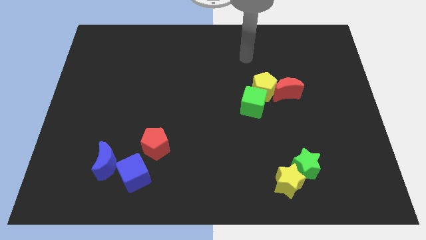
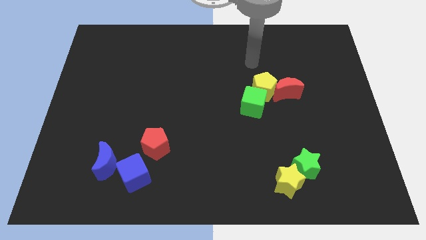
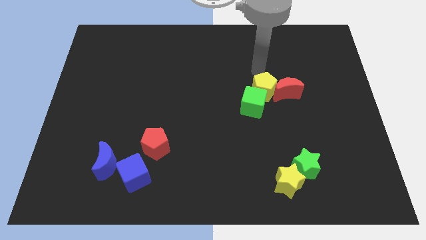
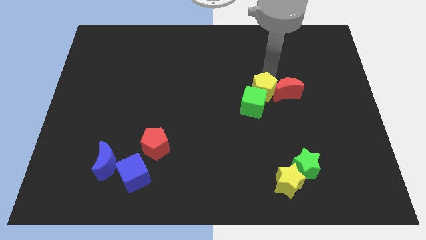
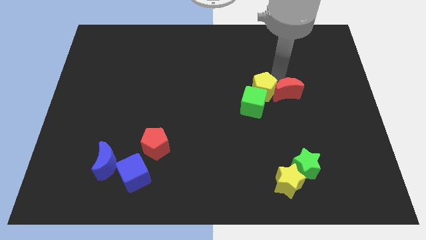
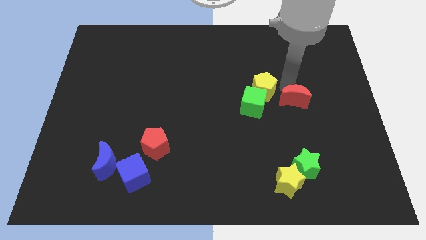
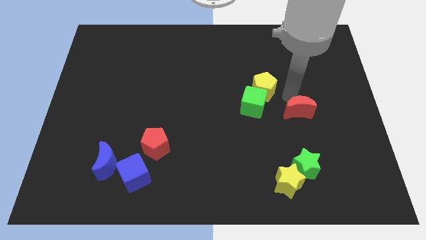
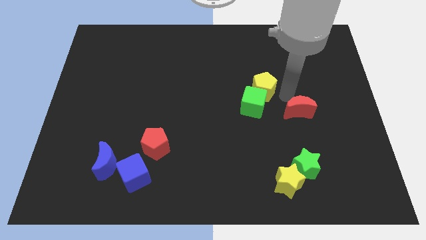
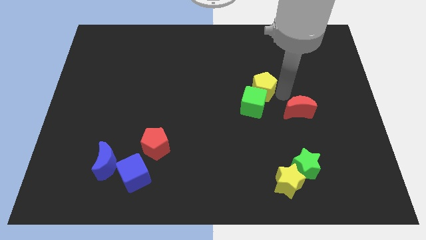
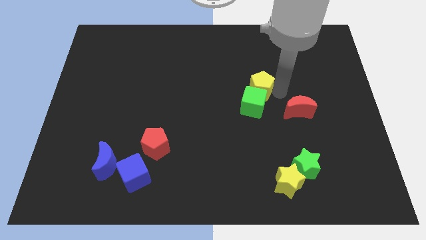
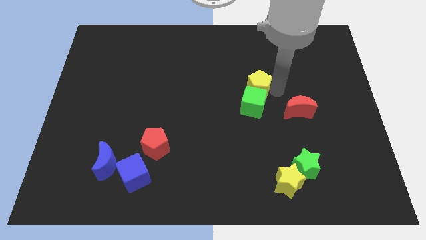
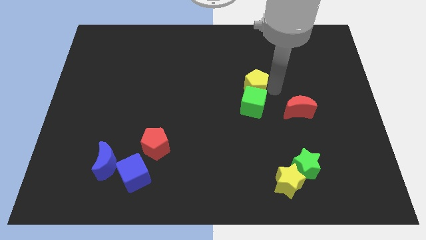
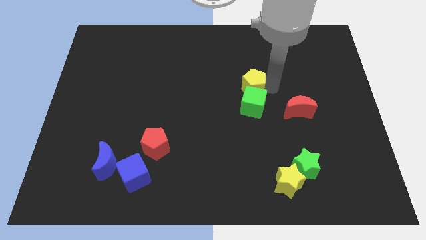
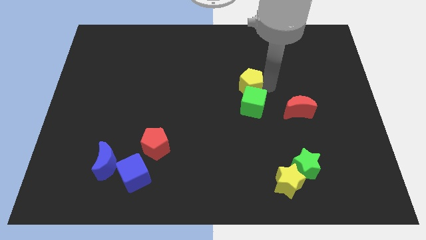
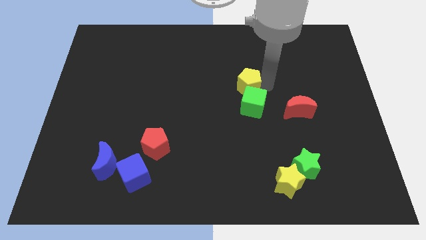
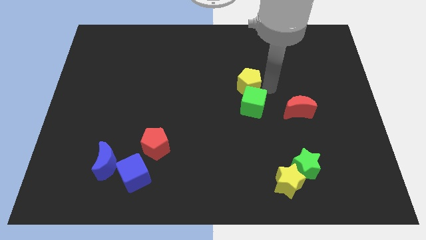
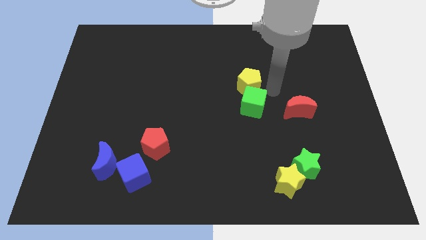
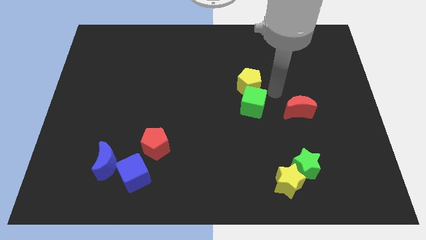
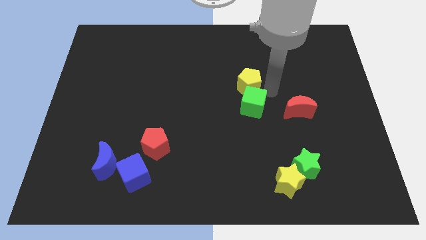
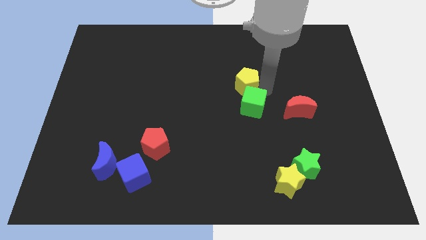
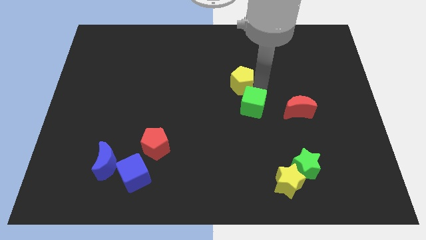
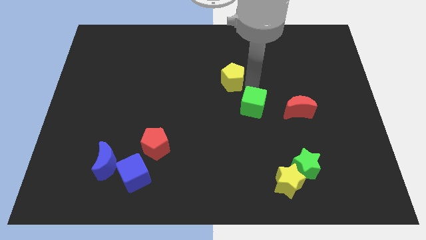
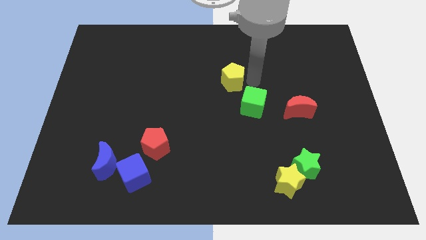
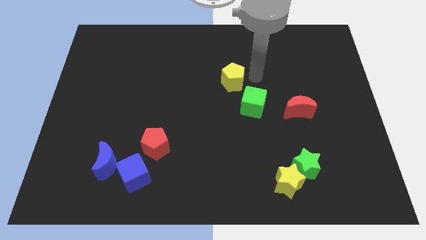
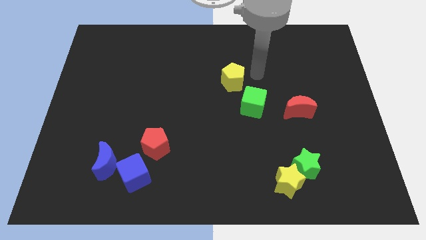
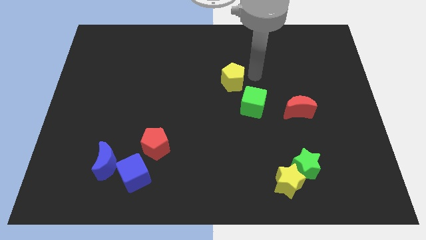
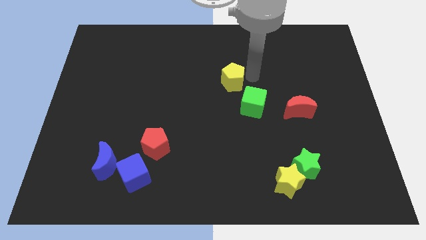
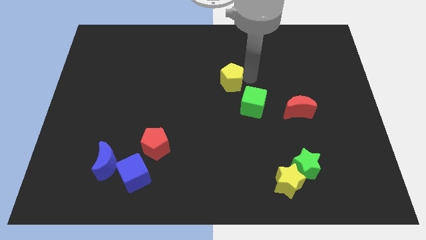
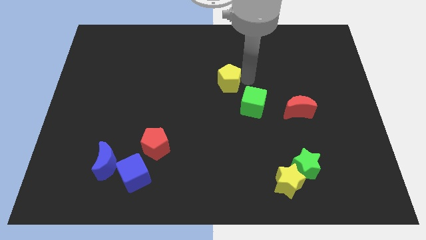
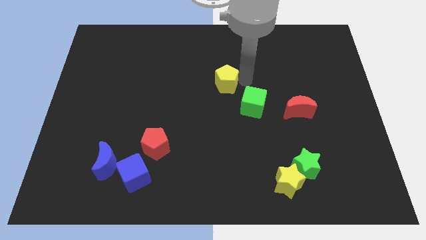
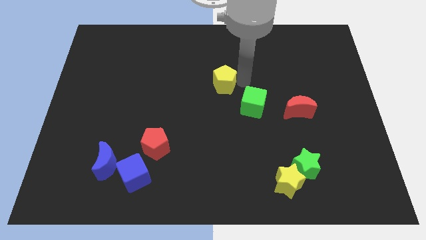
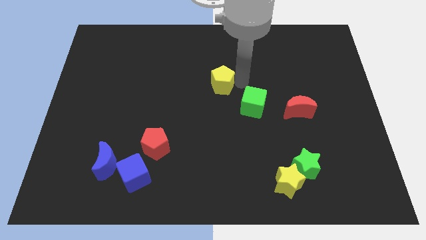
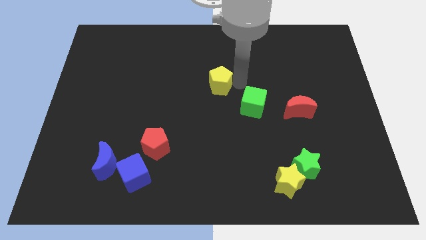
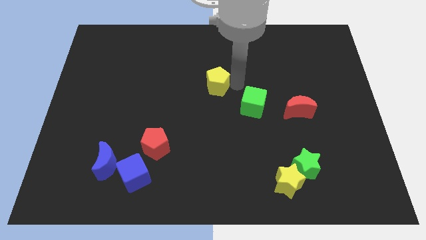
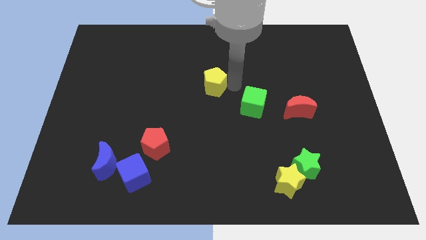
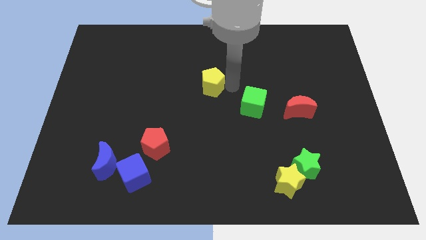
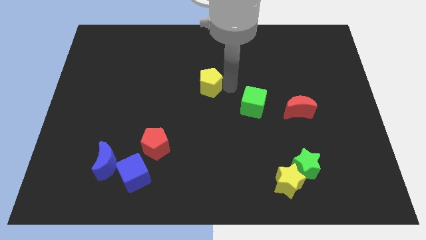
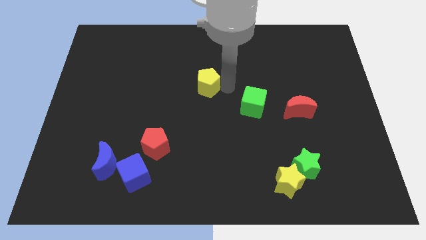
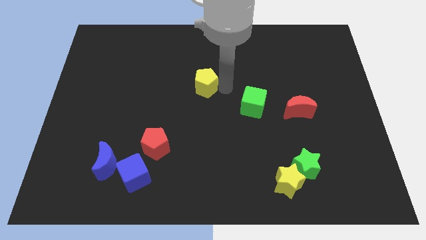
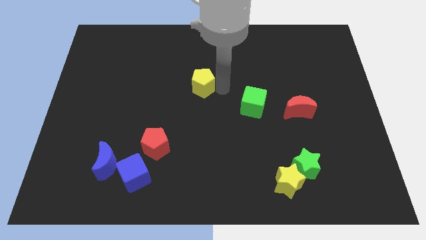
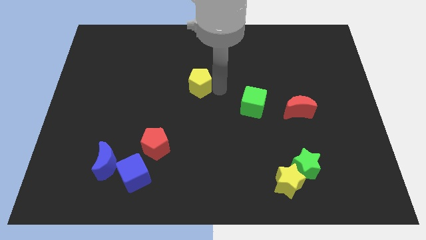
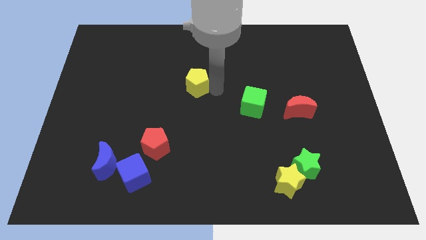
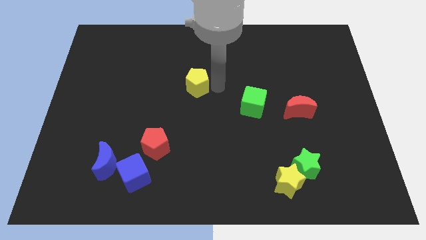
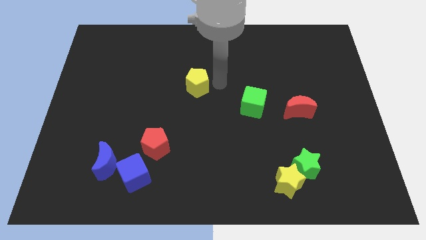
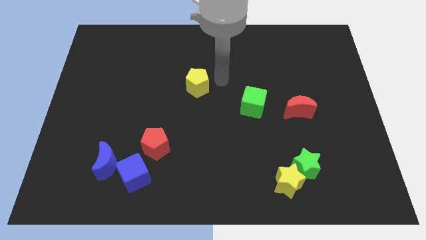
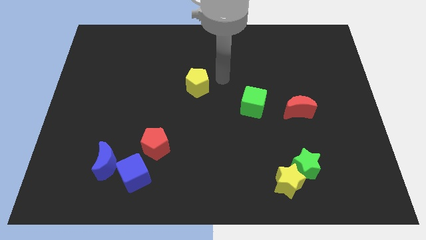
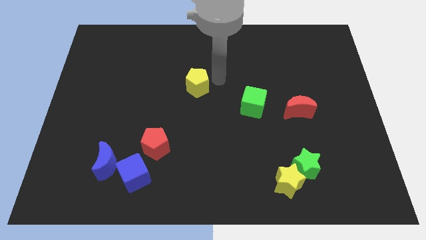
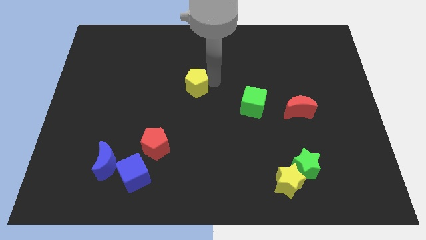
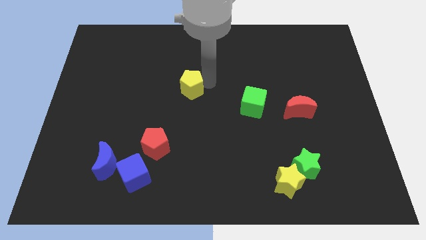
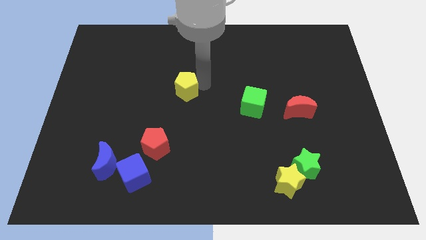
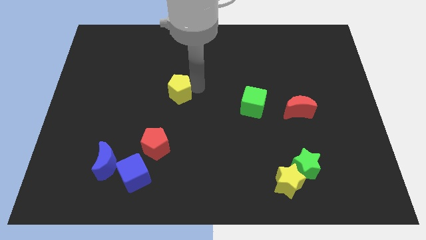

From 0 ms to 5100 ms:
move the yellow pentagon left

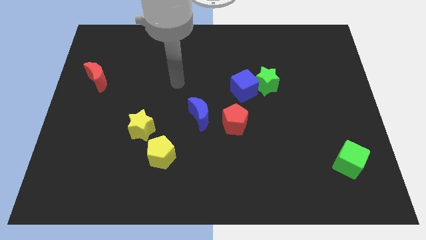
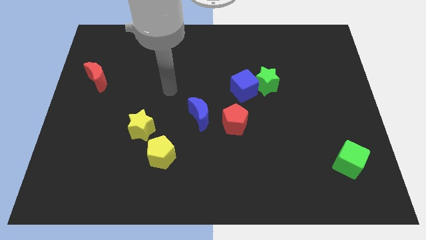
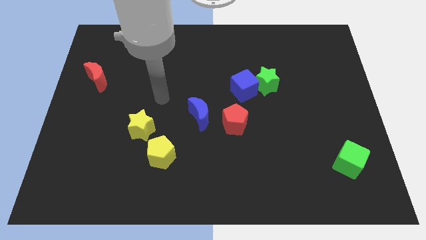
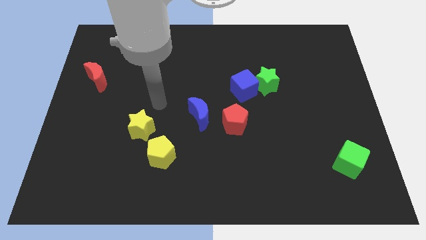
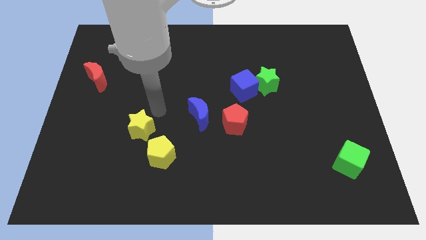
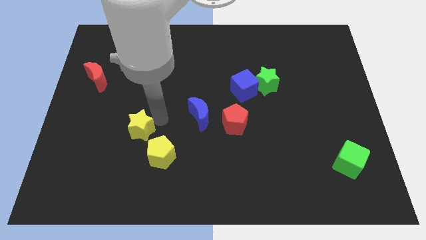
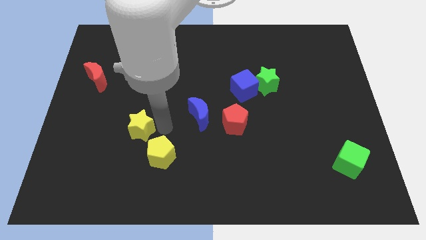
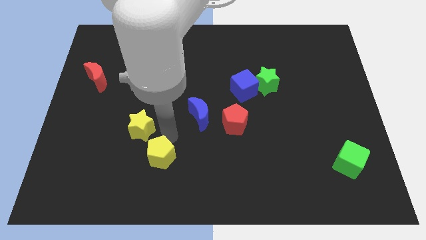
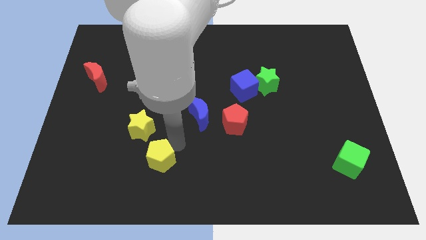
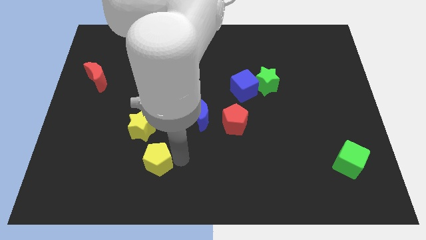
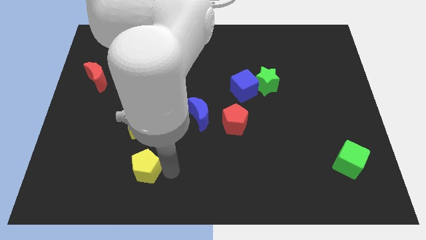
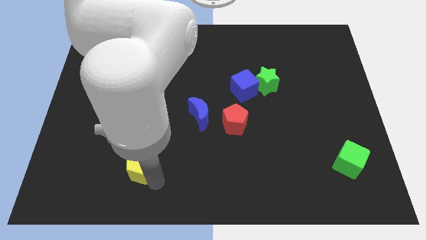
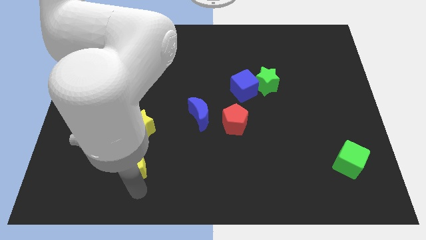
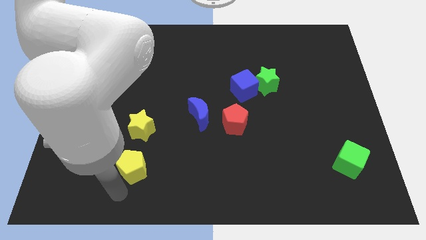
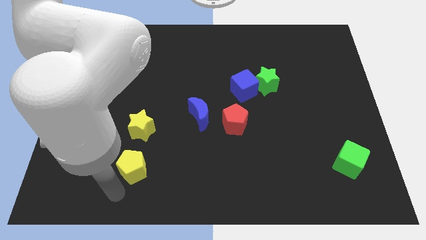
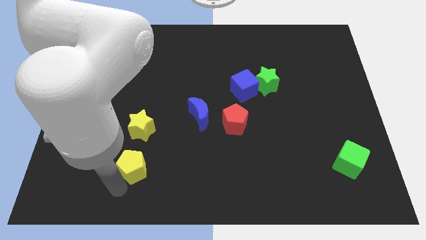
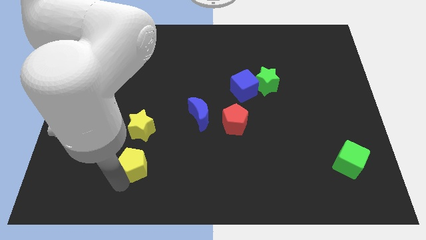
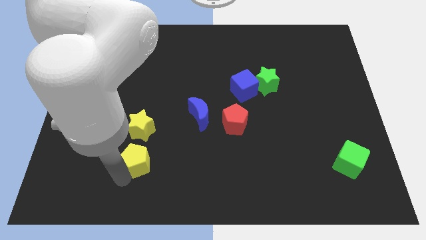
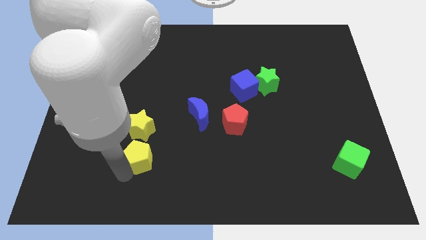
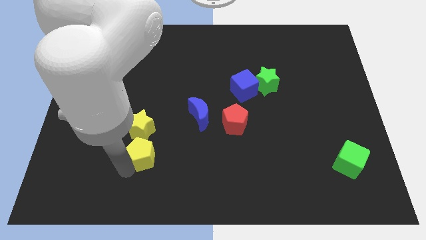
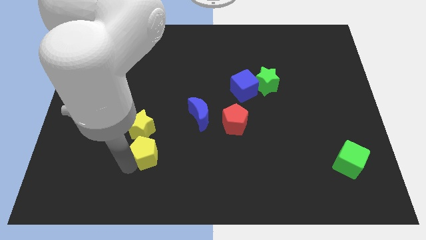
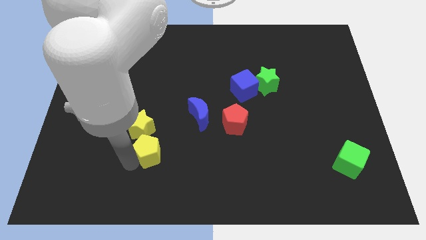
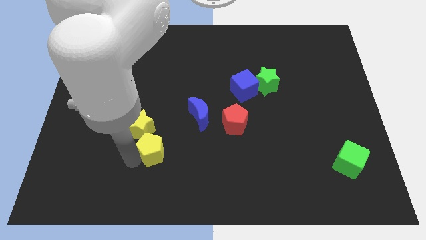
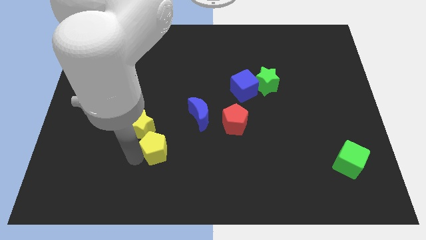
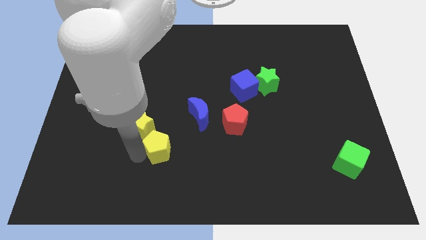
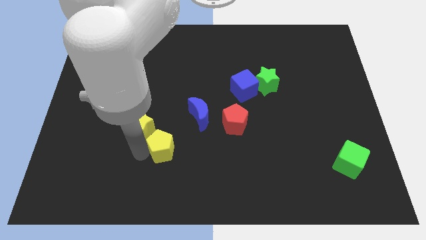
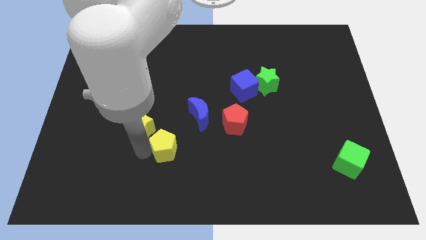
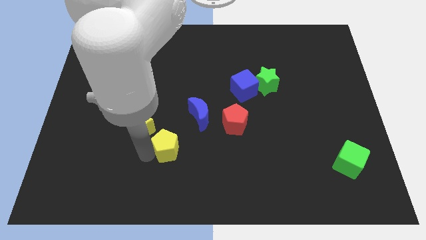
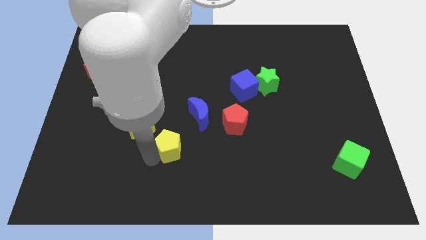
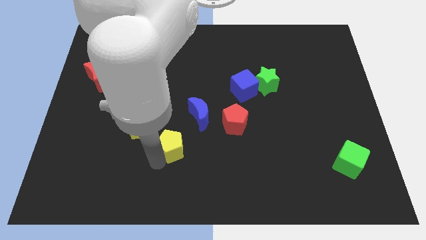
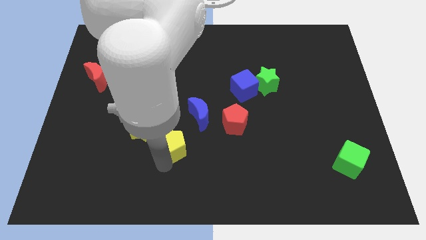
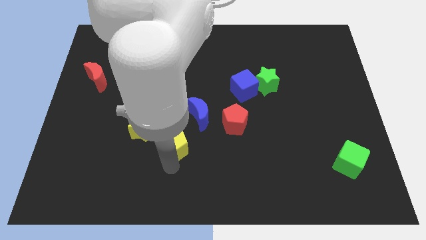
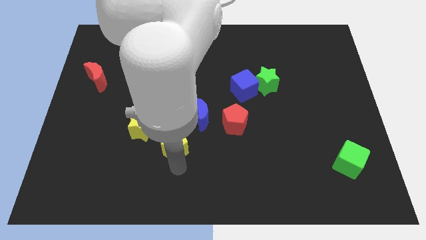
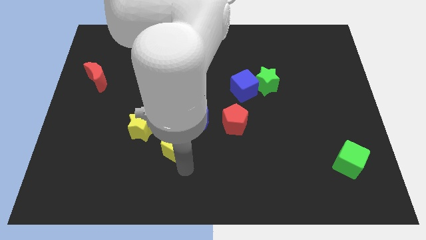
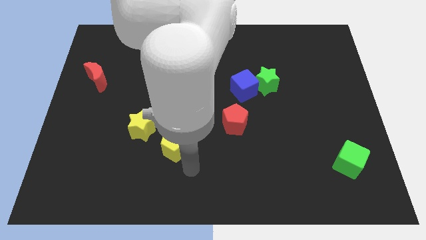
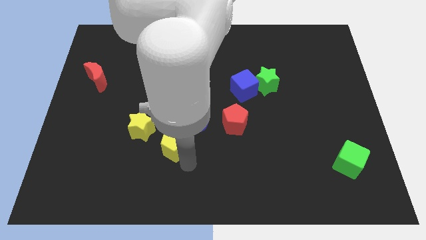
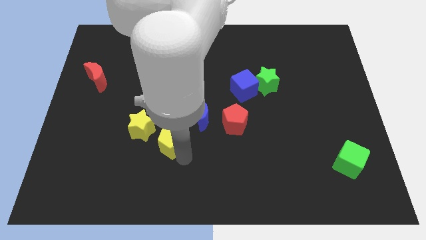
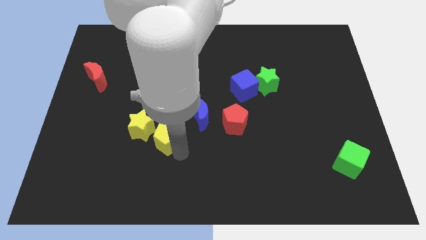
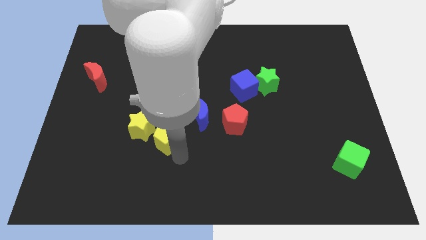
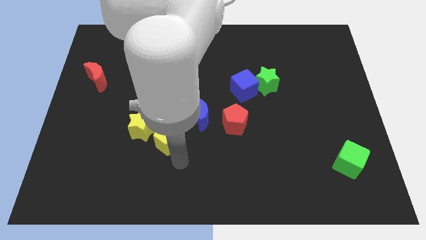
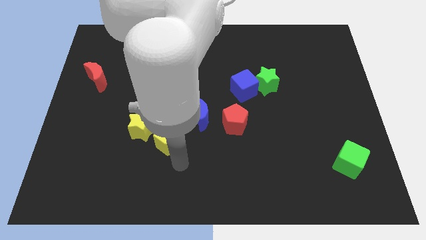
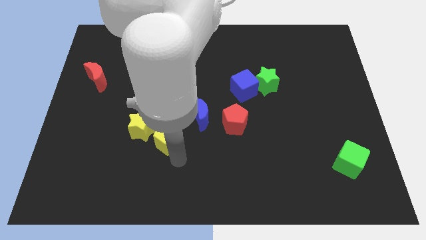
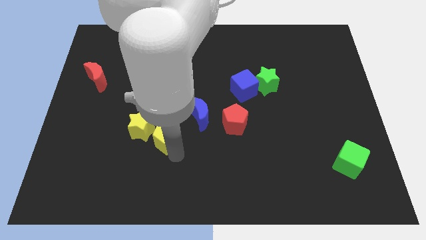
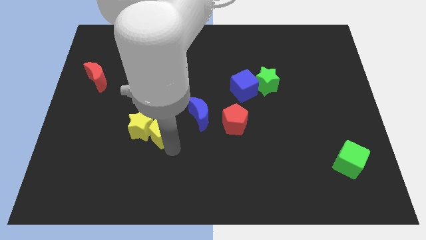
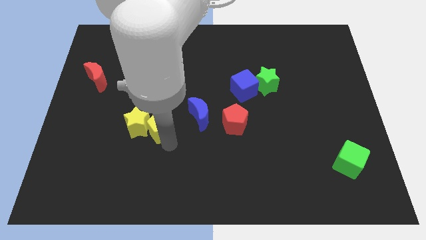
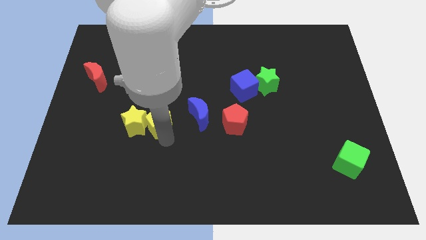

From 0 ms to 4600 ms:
slide the yellow pentagon up slightly
